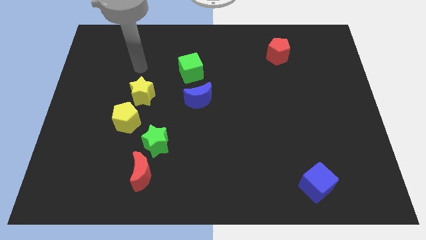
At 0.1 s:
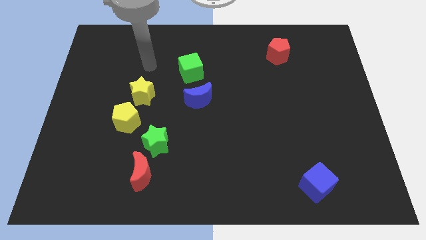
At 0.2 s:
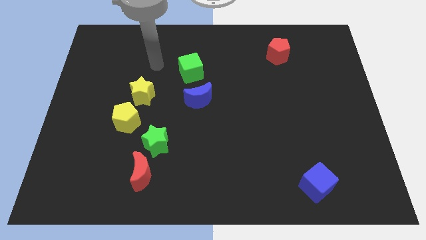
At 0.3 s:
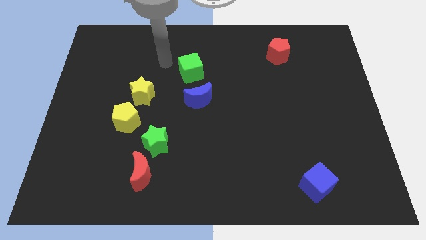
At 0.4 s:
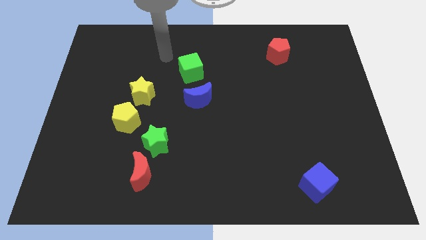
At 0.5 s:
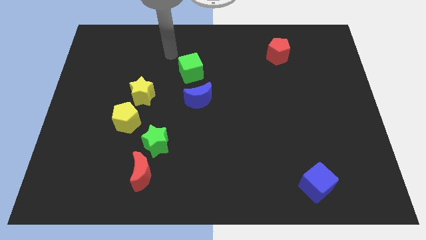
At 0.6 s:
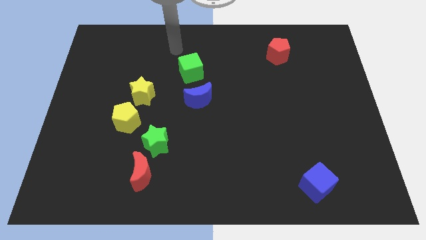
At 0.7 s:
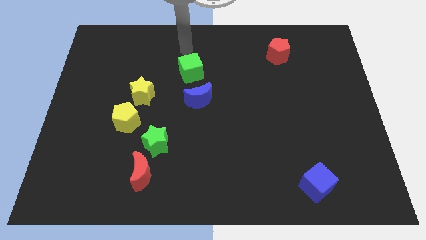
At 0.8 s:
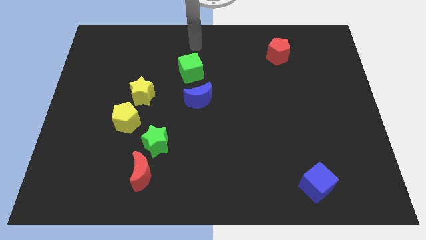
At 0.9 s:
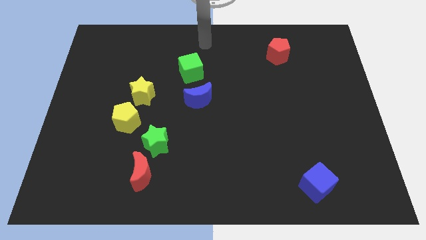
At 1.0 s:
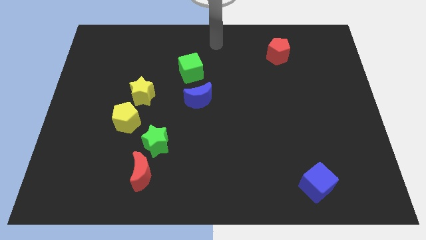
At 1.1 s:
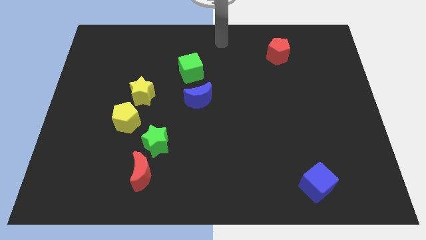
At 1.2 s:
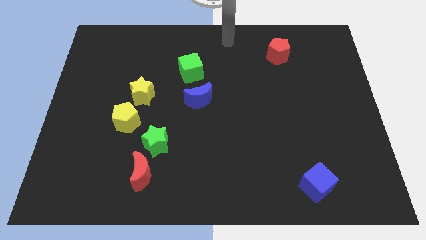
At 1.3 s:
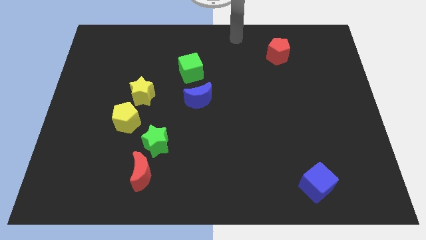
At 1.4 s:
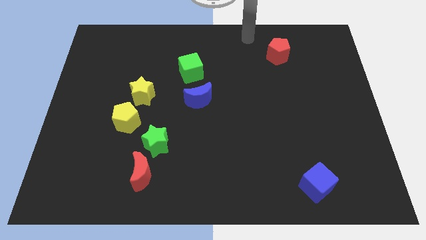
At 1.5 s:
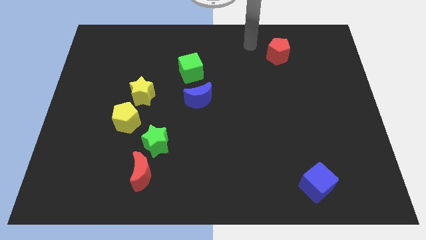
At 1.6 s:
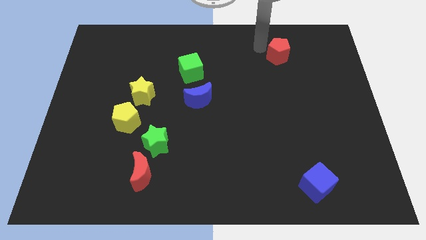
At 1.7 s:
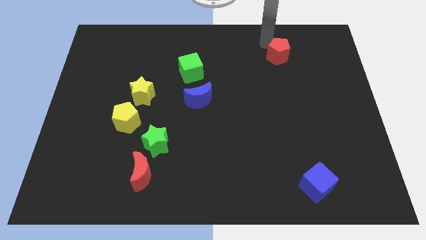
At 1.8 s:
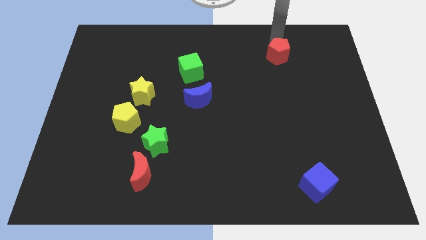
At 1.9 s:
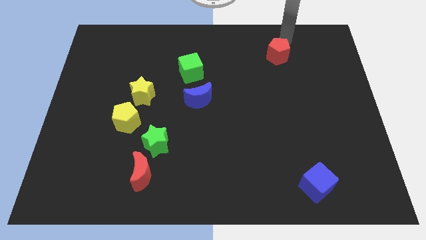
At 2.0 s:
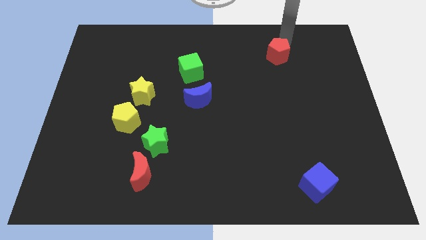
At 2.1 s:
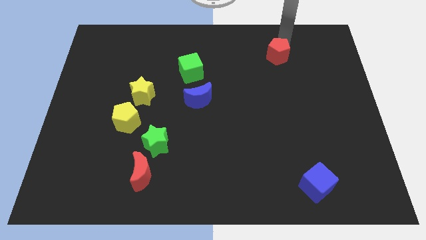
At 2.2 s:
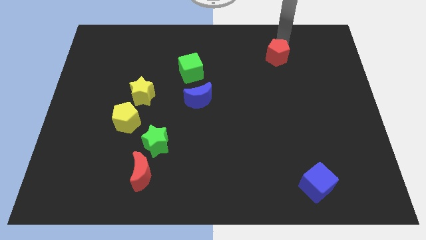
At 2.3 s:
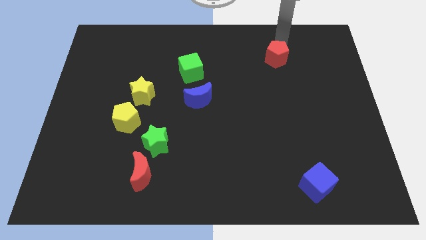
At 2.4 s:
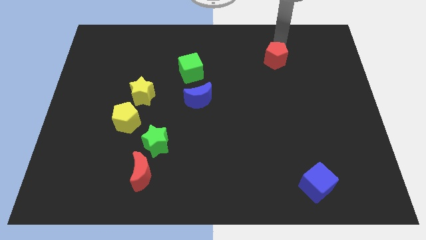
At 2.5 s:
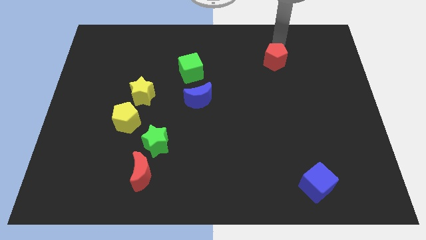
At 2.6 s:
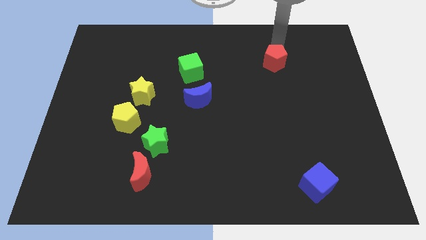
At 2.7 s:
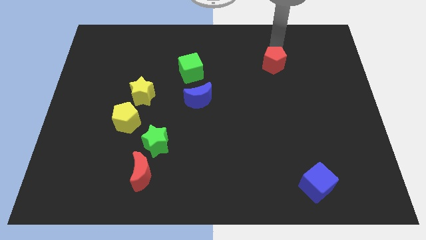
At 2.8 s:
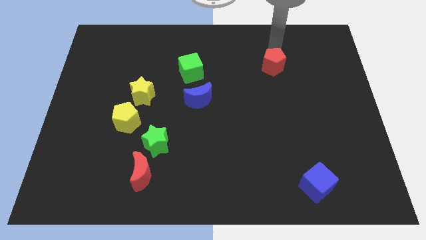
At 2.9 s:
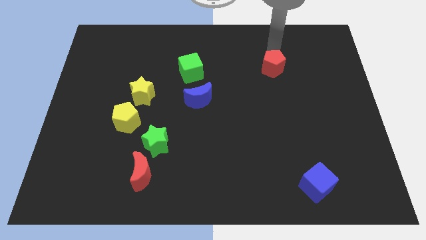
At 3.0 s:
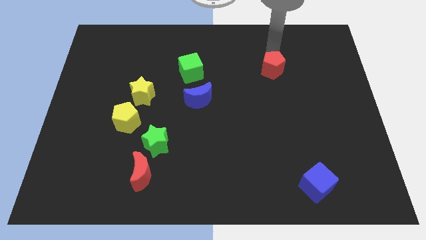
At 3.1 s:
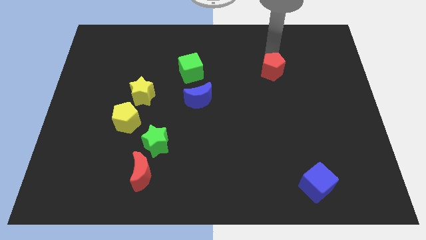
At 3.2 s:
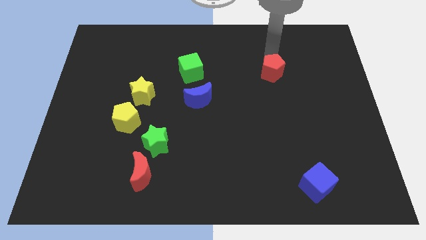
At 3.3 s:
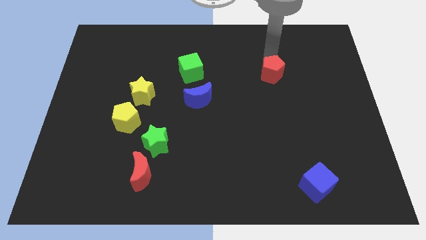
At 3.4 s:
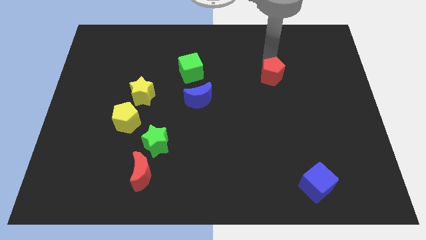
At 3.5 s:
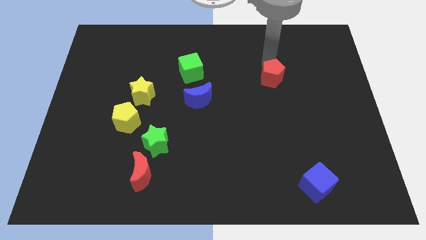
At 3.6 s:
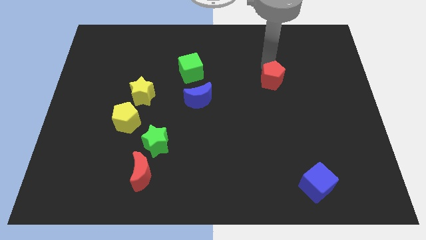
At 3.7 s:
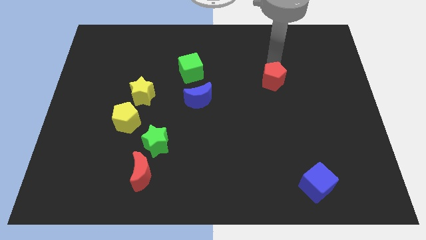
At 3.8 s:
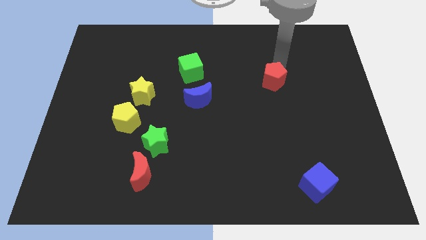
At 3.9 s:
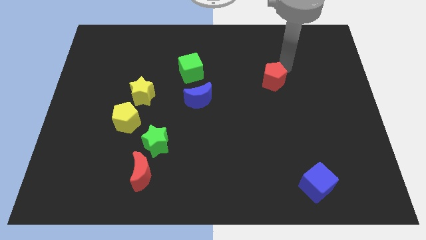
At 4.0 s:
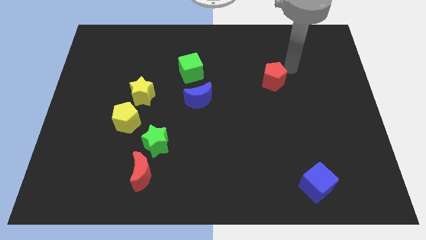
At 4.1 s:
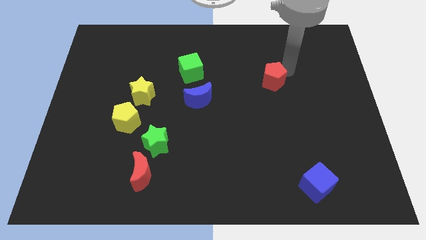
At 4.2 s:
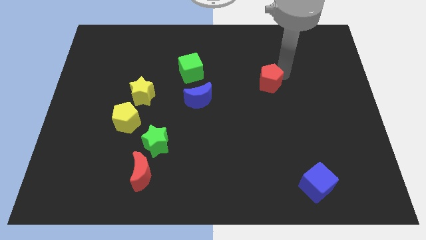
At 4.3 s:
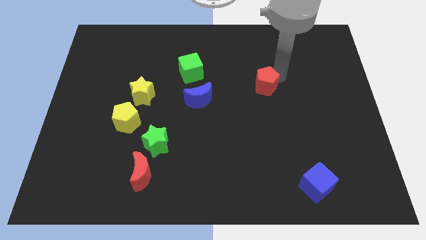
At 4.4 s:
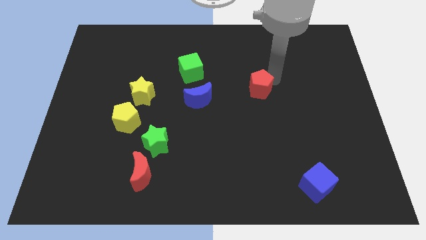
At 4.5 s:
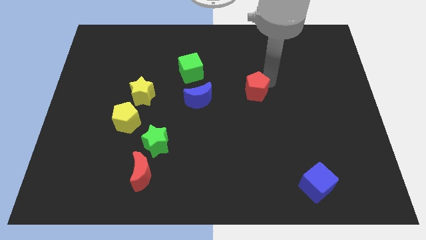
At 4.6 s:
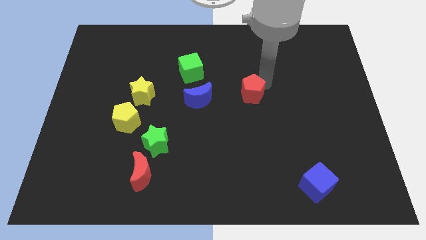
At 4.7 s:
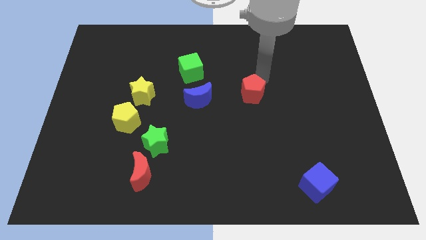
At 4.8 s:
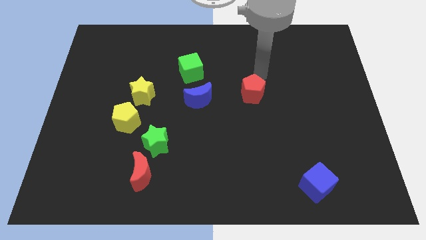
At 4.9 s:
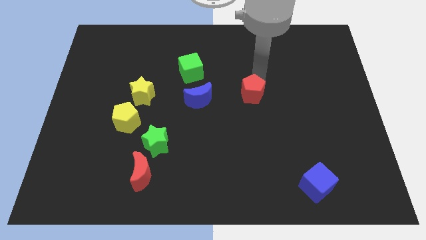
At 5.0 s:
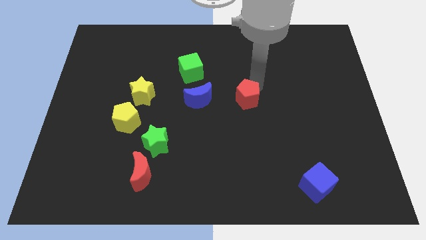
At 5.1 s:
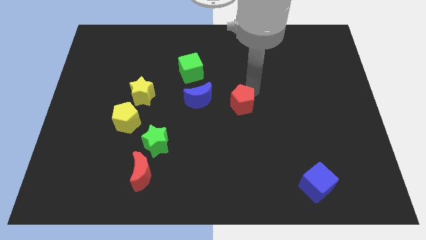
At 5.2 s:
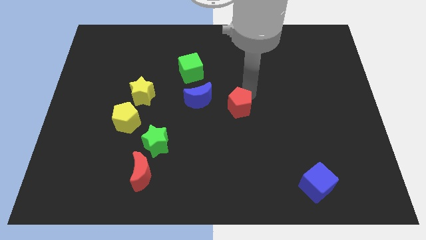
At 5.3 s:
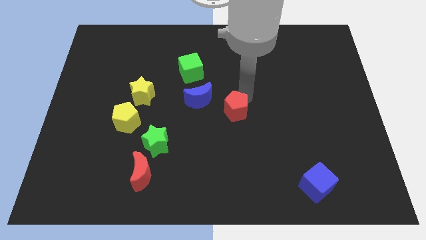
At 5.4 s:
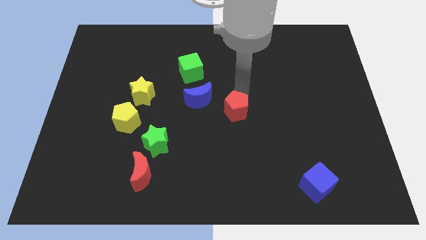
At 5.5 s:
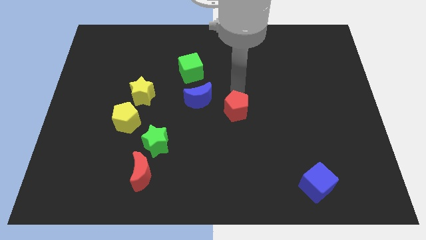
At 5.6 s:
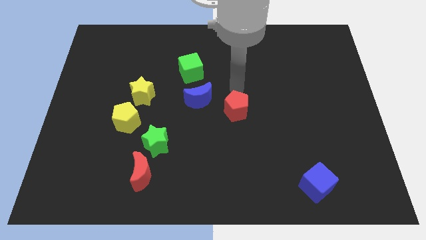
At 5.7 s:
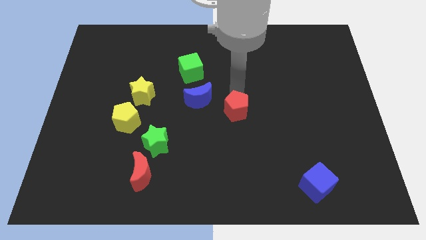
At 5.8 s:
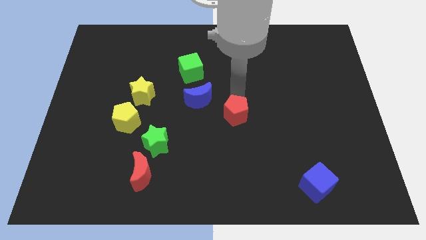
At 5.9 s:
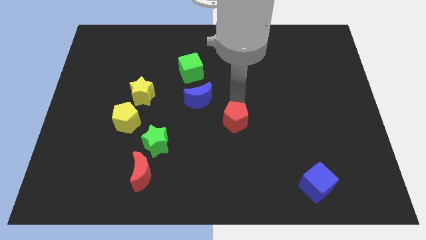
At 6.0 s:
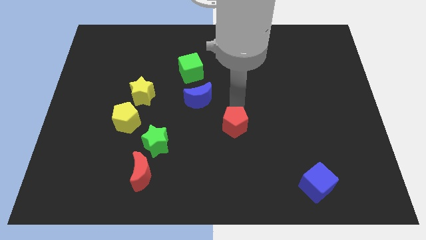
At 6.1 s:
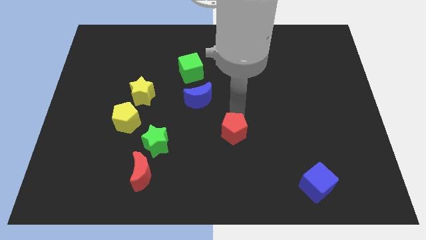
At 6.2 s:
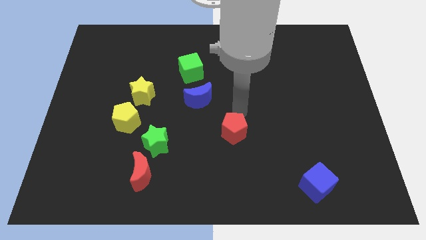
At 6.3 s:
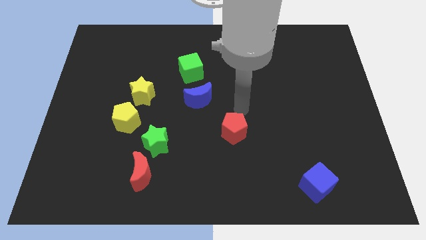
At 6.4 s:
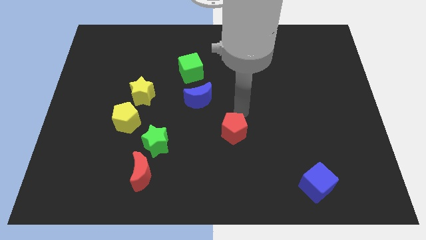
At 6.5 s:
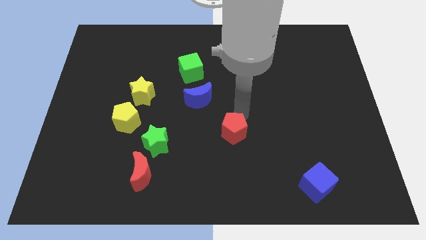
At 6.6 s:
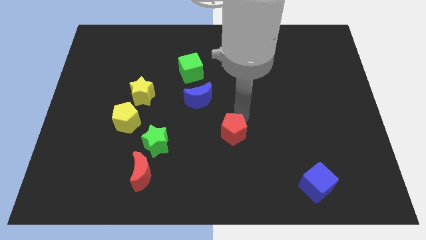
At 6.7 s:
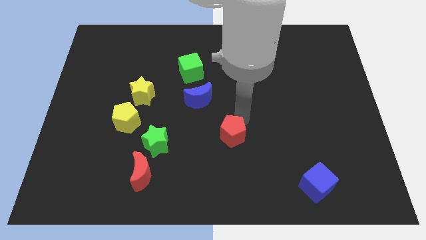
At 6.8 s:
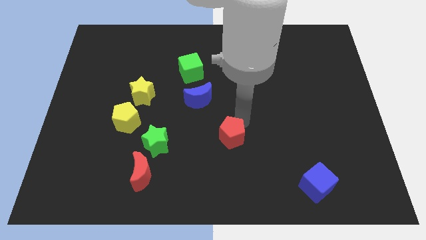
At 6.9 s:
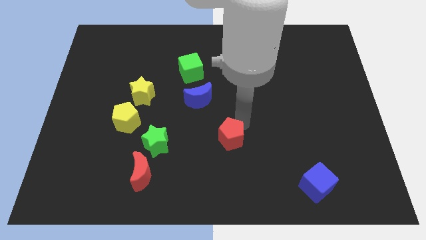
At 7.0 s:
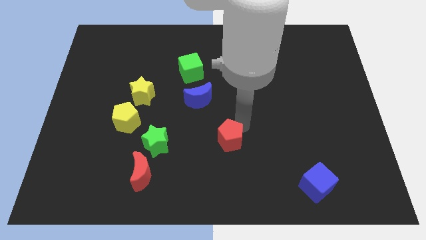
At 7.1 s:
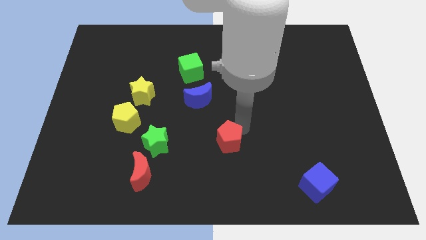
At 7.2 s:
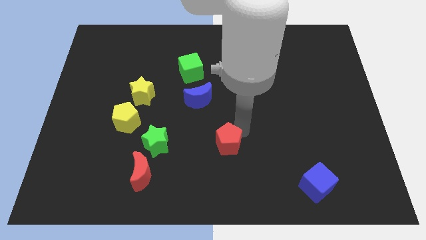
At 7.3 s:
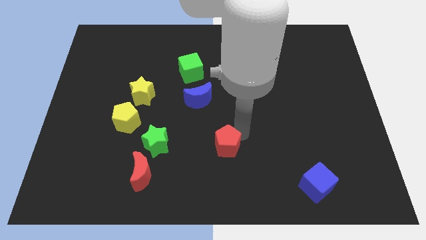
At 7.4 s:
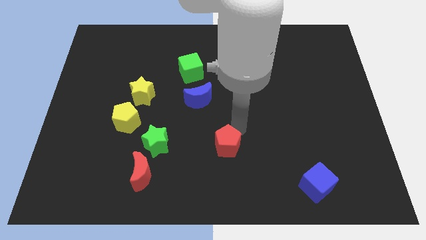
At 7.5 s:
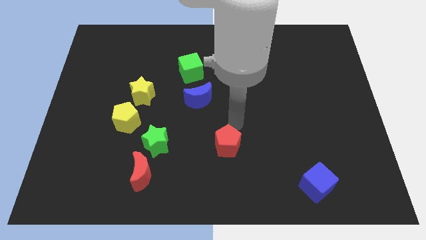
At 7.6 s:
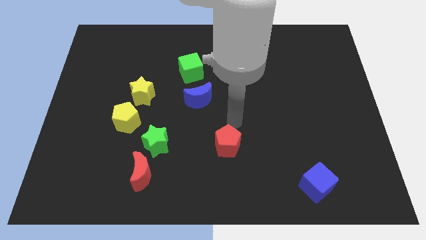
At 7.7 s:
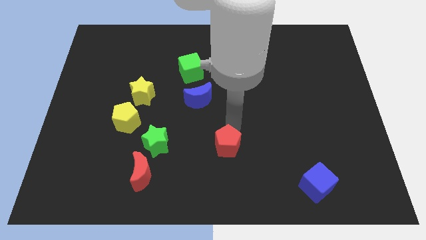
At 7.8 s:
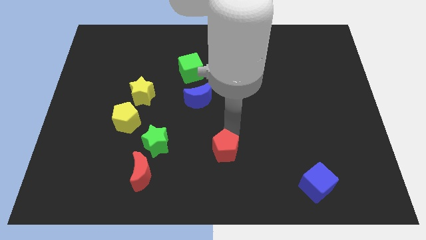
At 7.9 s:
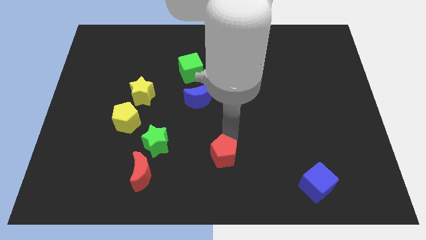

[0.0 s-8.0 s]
push the red pentagon to the bottom
